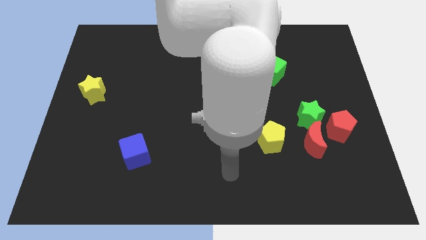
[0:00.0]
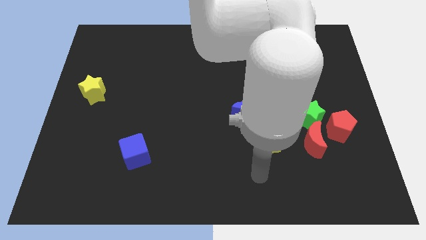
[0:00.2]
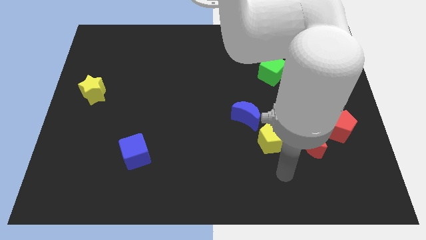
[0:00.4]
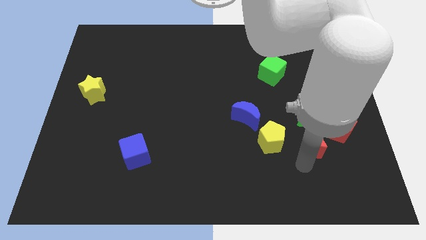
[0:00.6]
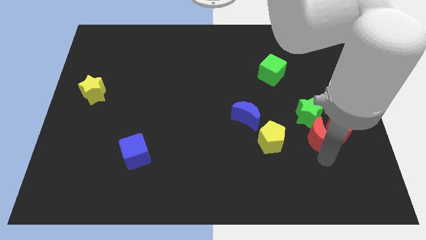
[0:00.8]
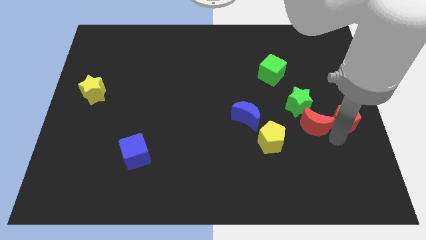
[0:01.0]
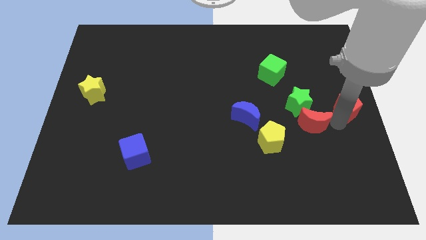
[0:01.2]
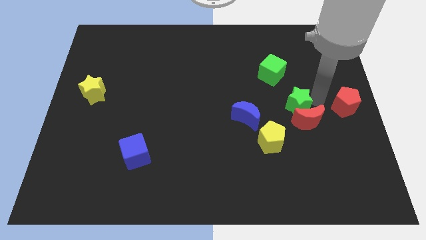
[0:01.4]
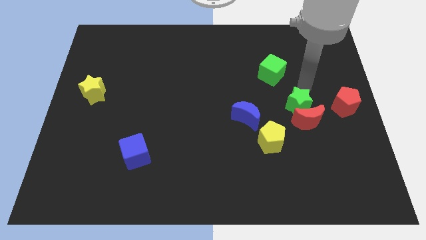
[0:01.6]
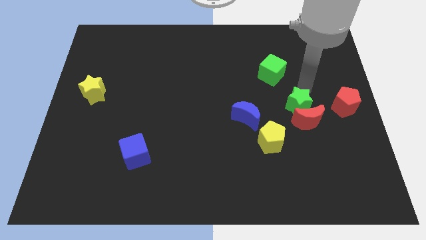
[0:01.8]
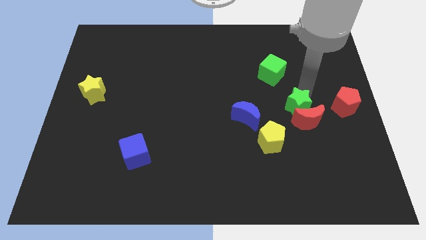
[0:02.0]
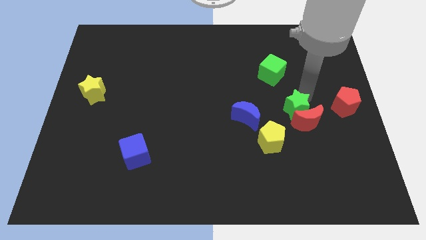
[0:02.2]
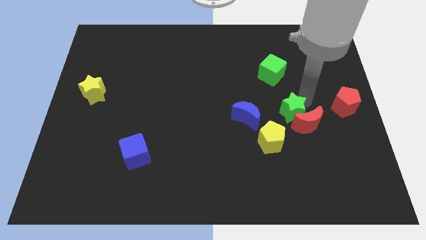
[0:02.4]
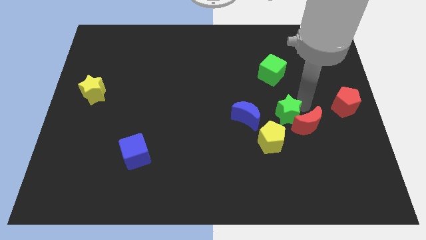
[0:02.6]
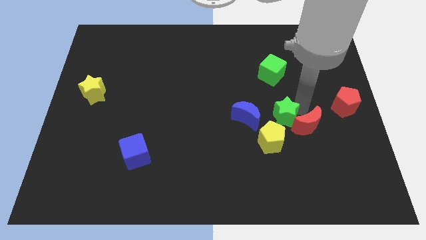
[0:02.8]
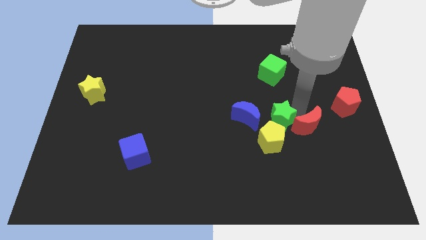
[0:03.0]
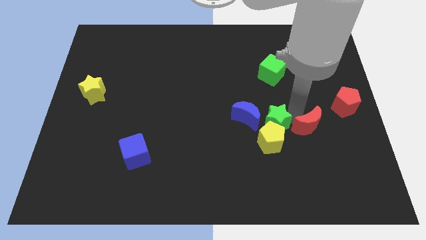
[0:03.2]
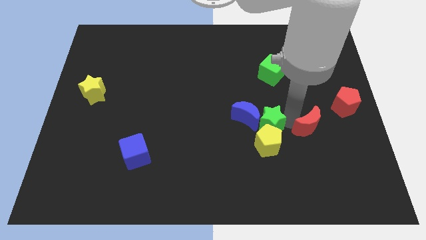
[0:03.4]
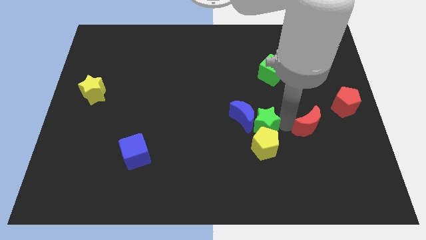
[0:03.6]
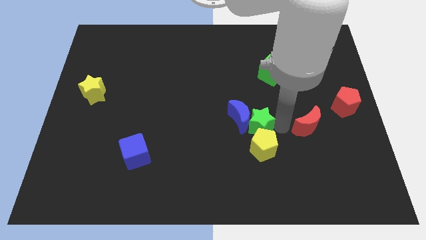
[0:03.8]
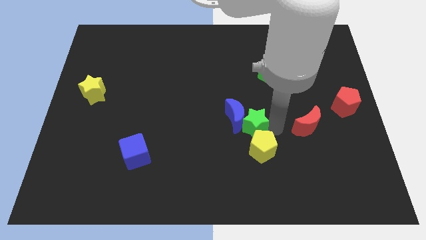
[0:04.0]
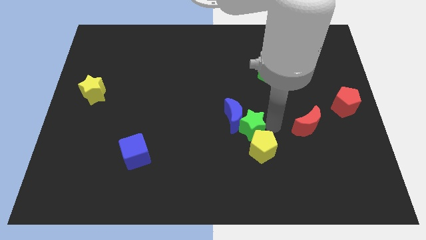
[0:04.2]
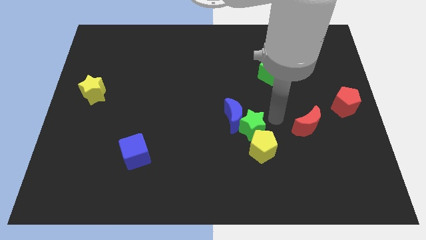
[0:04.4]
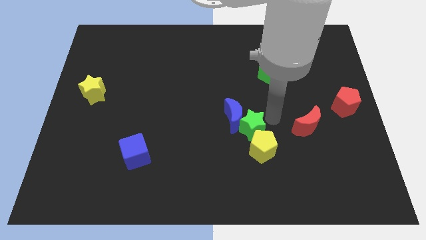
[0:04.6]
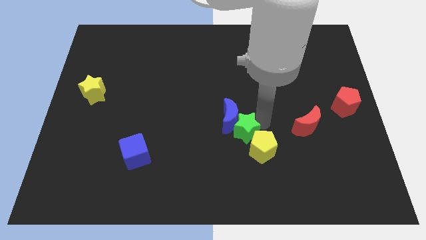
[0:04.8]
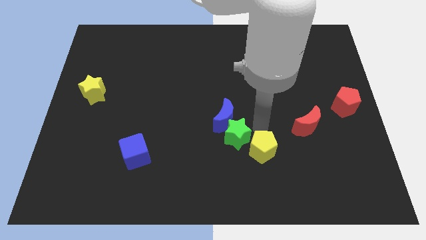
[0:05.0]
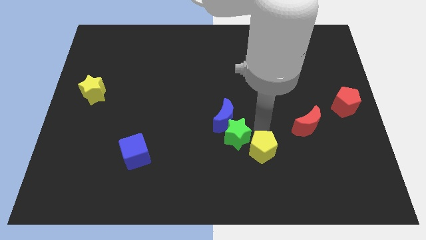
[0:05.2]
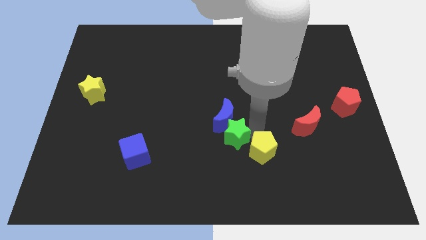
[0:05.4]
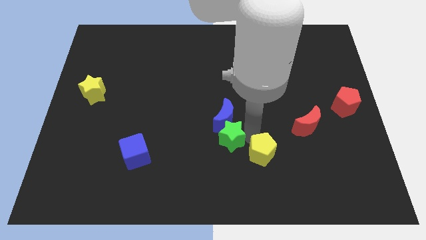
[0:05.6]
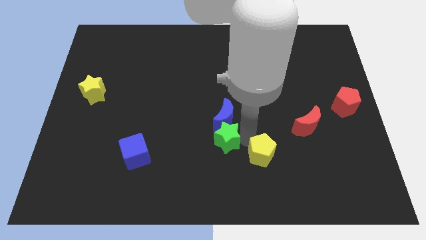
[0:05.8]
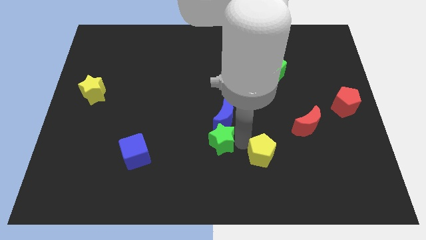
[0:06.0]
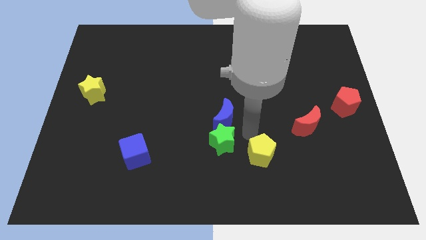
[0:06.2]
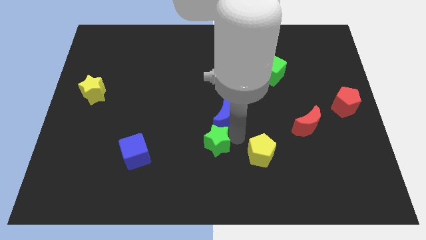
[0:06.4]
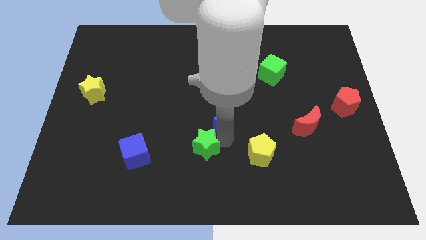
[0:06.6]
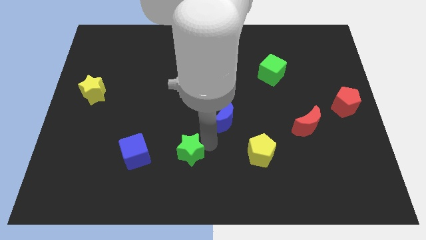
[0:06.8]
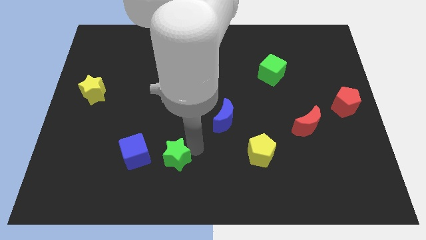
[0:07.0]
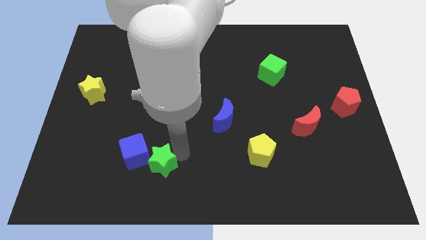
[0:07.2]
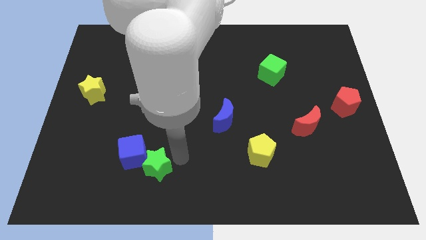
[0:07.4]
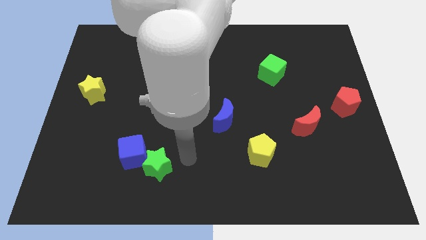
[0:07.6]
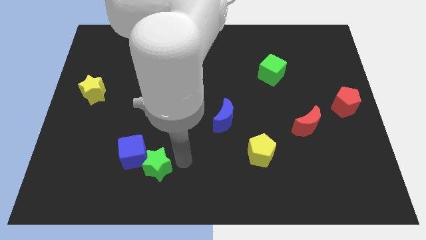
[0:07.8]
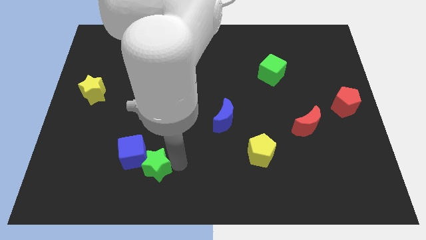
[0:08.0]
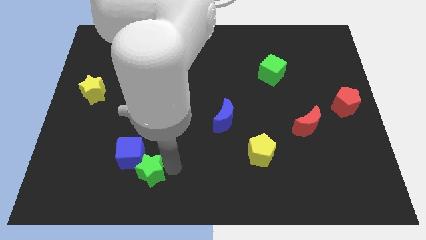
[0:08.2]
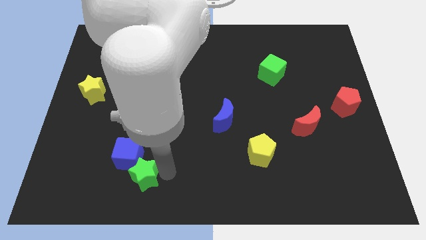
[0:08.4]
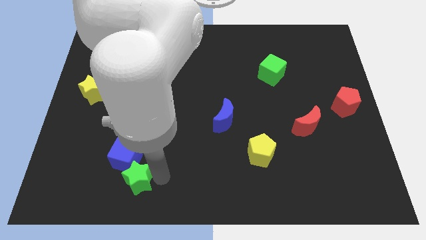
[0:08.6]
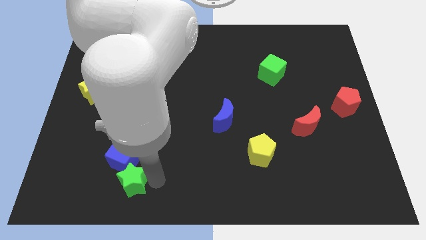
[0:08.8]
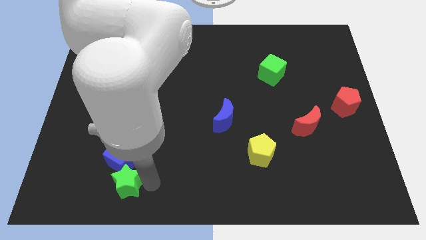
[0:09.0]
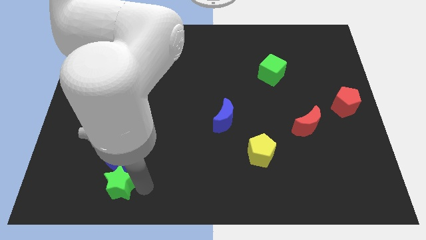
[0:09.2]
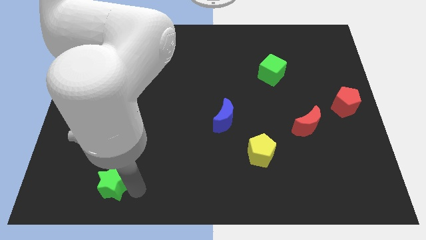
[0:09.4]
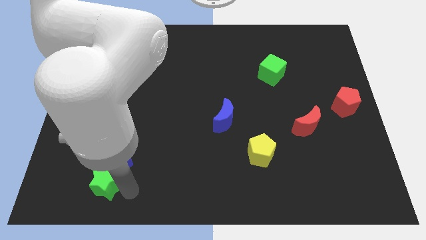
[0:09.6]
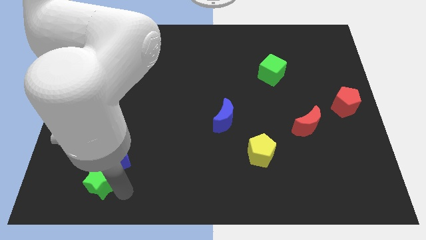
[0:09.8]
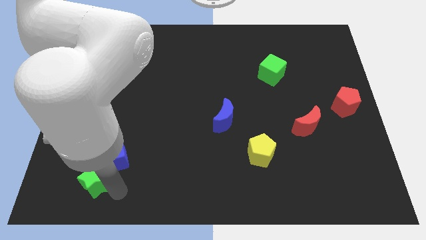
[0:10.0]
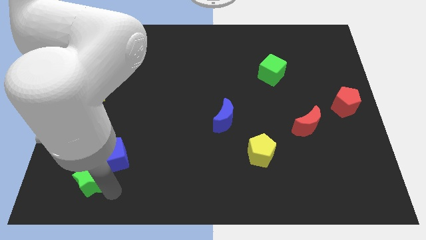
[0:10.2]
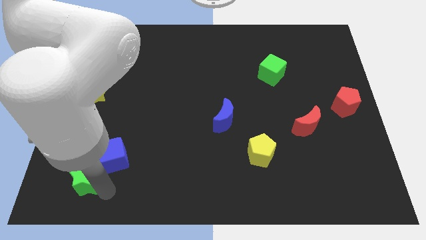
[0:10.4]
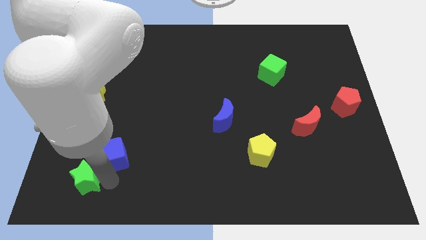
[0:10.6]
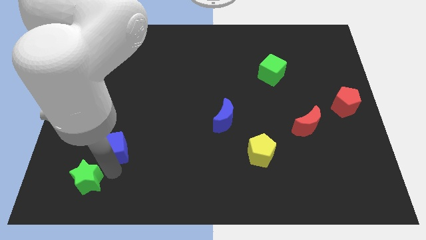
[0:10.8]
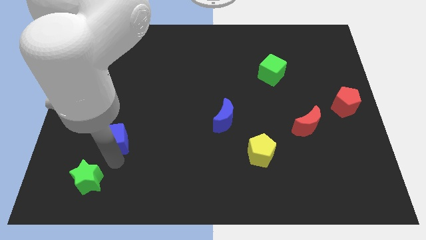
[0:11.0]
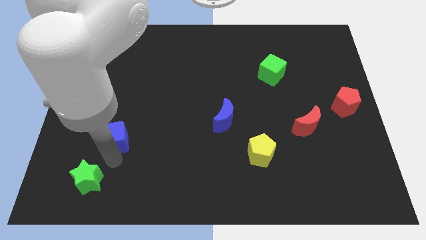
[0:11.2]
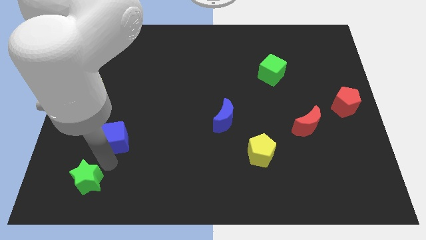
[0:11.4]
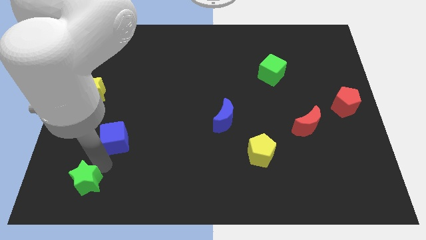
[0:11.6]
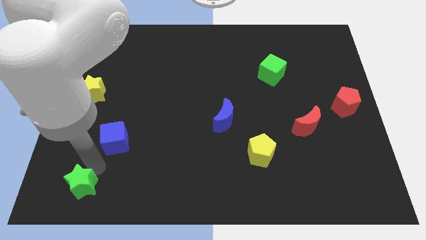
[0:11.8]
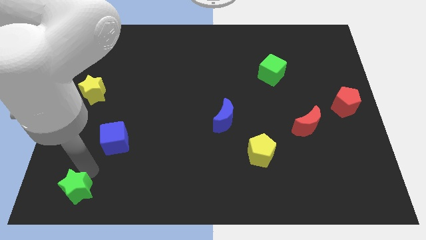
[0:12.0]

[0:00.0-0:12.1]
push the green star to the bottom left of the board
